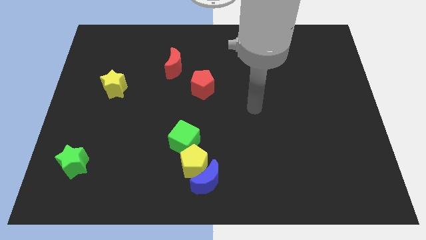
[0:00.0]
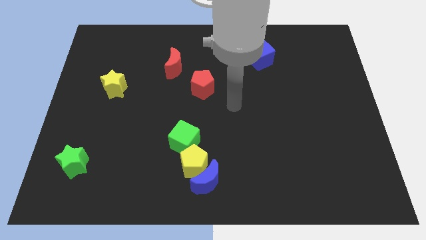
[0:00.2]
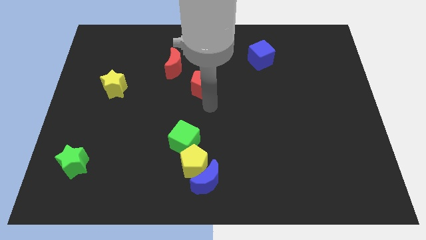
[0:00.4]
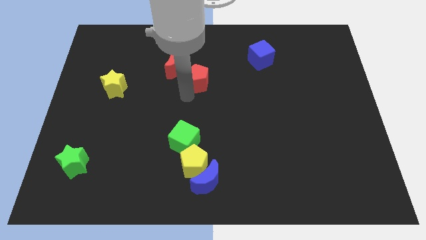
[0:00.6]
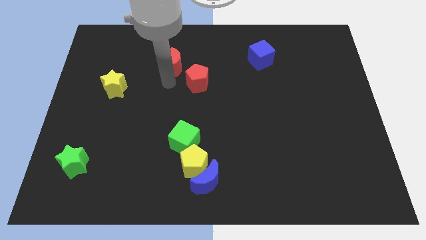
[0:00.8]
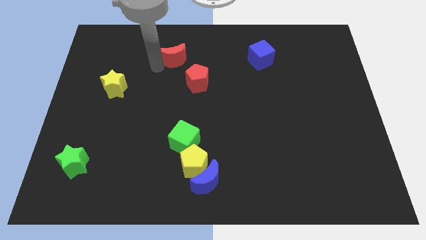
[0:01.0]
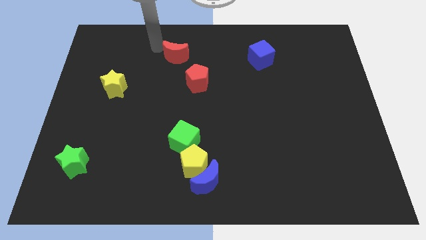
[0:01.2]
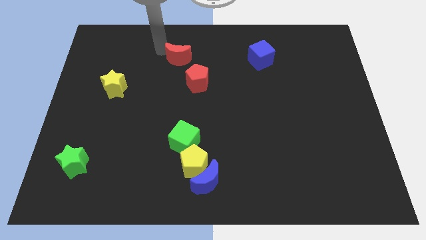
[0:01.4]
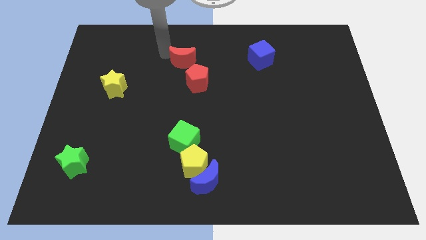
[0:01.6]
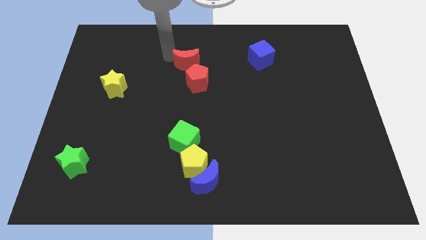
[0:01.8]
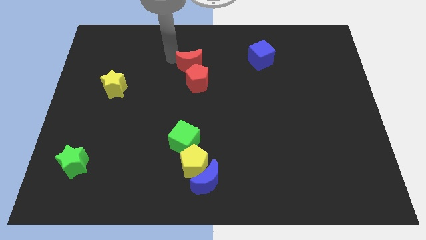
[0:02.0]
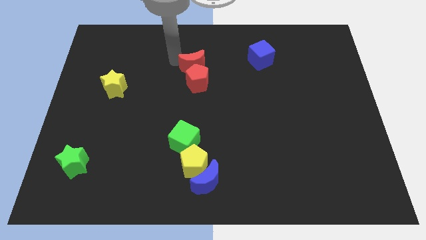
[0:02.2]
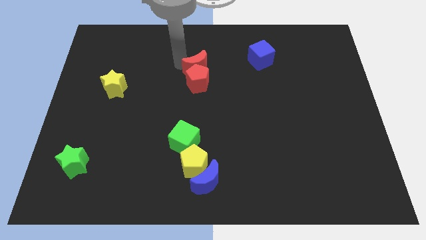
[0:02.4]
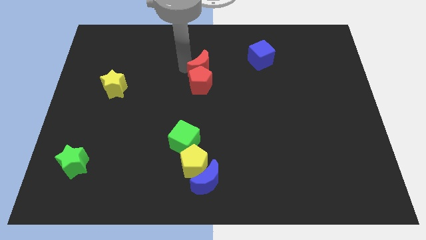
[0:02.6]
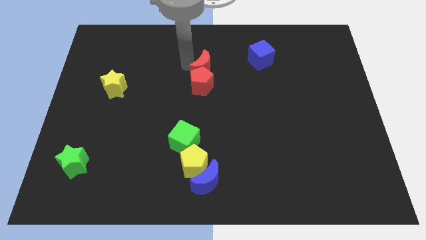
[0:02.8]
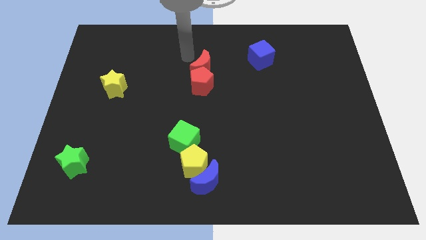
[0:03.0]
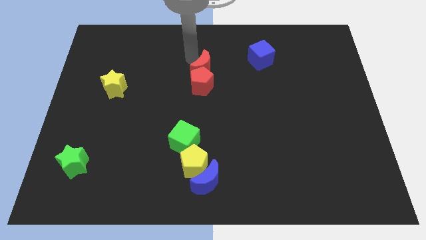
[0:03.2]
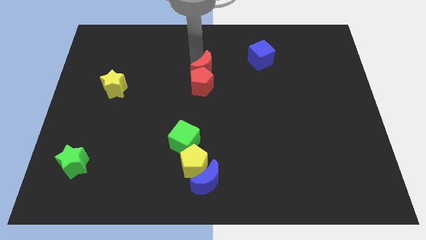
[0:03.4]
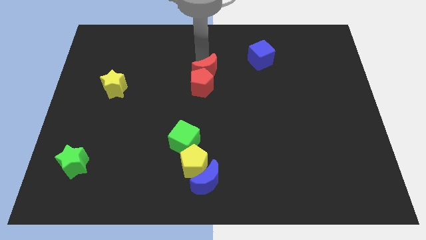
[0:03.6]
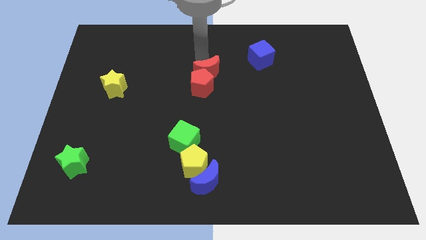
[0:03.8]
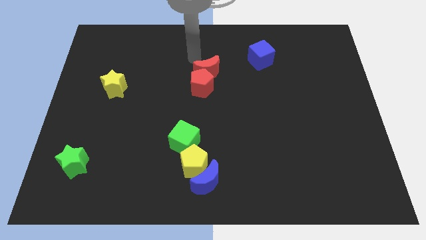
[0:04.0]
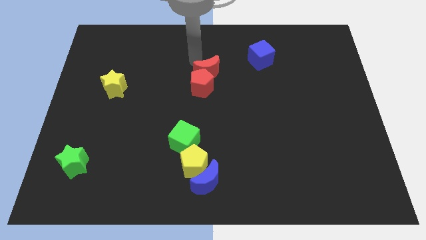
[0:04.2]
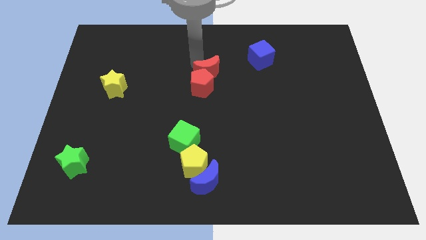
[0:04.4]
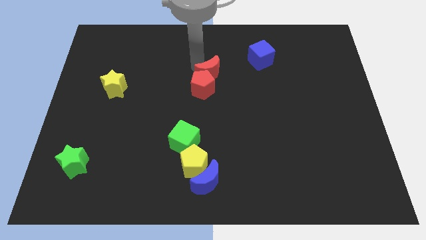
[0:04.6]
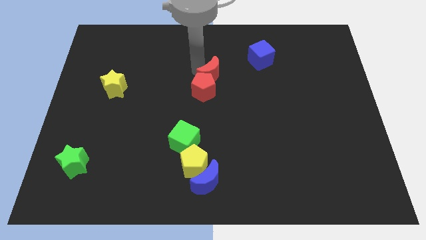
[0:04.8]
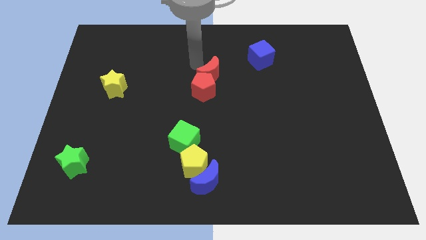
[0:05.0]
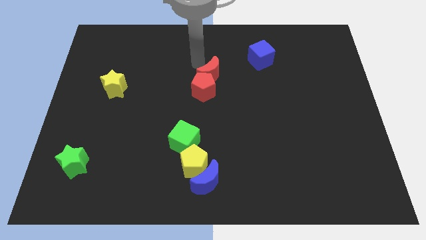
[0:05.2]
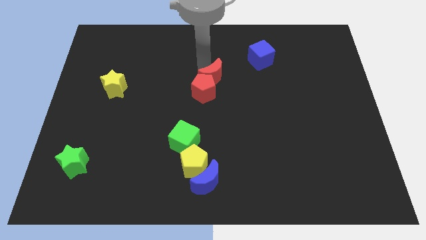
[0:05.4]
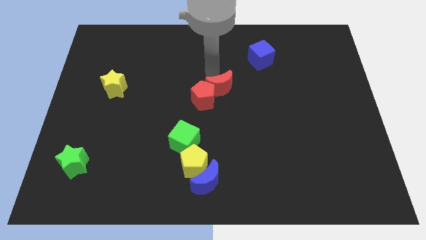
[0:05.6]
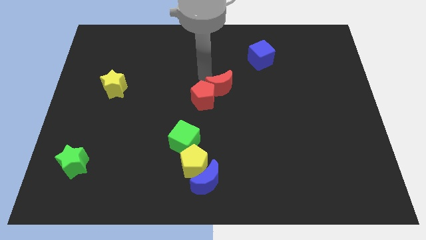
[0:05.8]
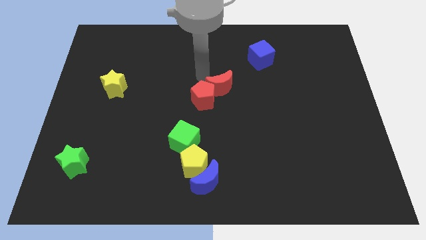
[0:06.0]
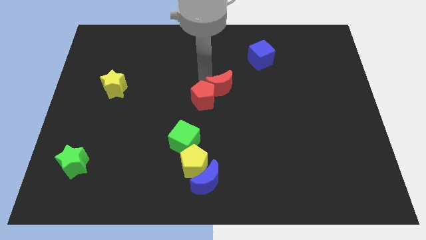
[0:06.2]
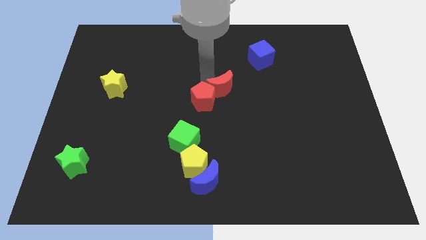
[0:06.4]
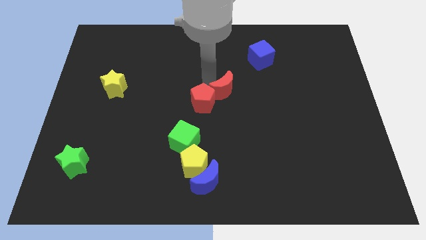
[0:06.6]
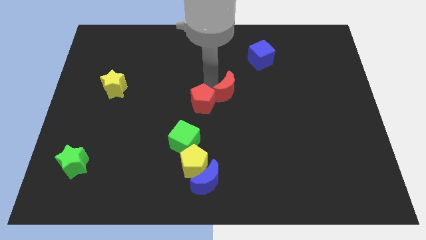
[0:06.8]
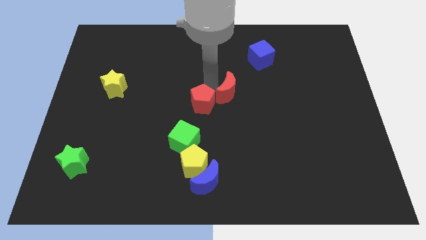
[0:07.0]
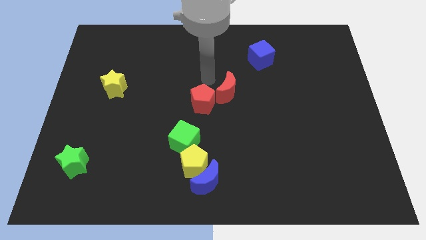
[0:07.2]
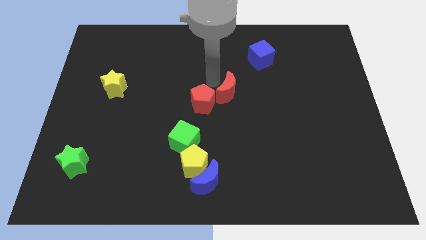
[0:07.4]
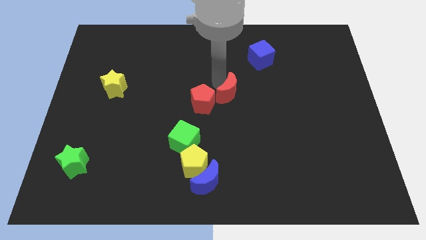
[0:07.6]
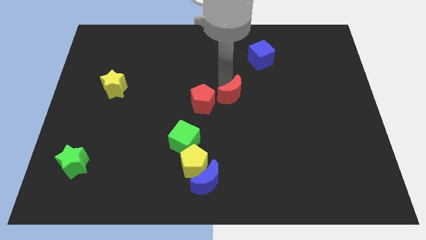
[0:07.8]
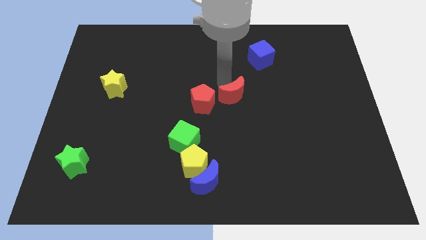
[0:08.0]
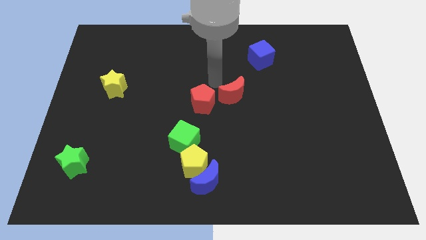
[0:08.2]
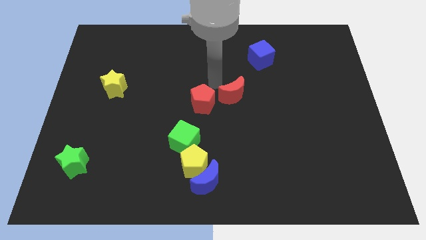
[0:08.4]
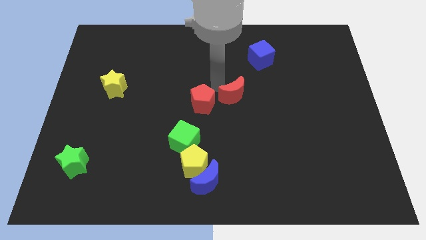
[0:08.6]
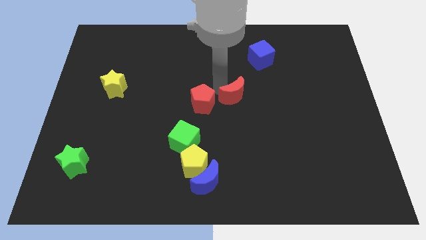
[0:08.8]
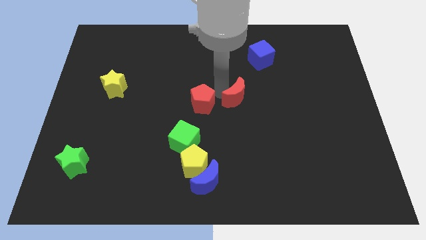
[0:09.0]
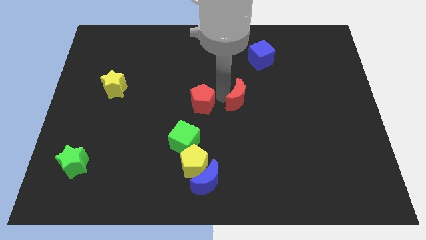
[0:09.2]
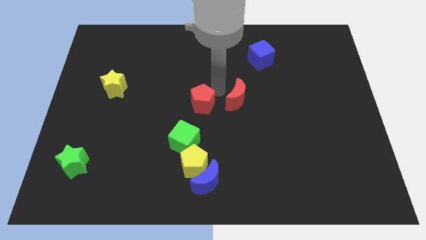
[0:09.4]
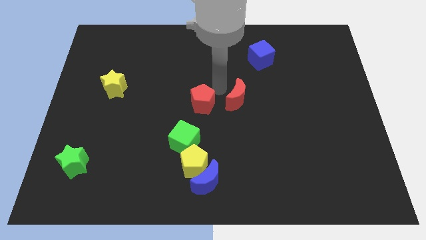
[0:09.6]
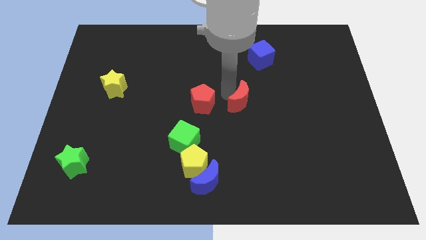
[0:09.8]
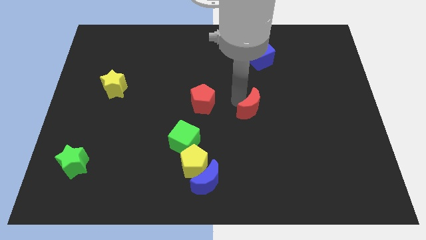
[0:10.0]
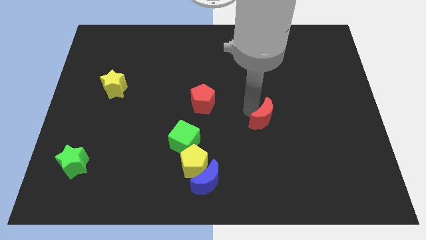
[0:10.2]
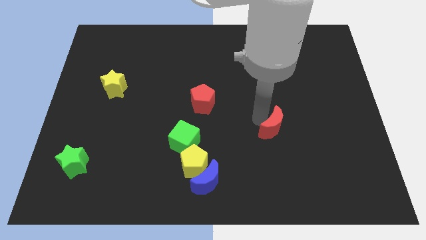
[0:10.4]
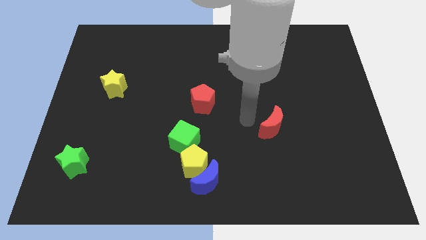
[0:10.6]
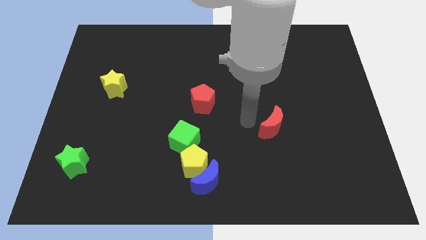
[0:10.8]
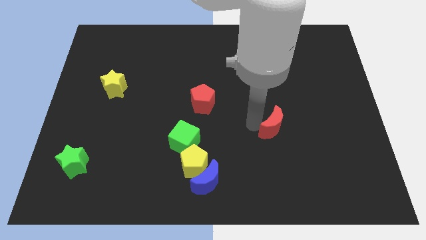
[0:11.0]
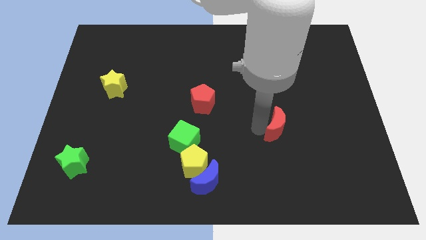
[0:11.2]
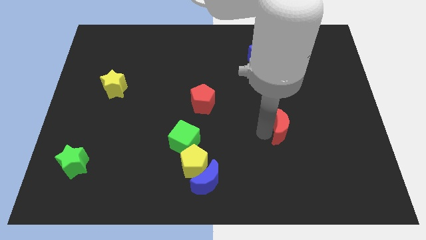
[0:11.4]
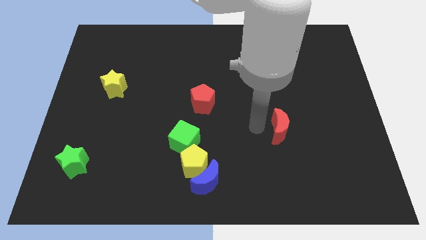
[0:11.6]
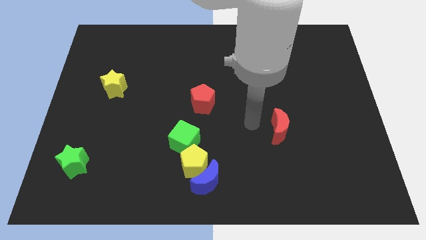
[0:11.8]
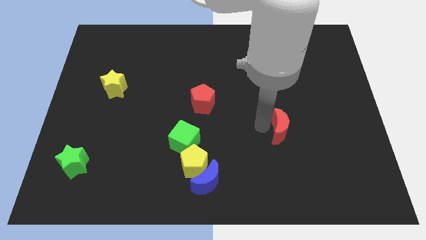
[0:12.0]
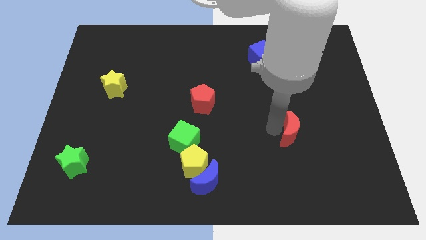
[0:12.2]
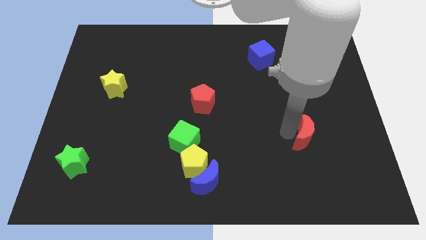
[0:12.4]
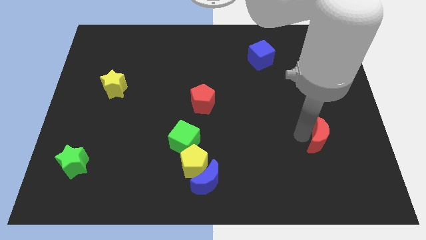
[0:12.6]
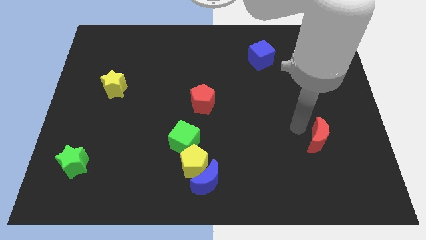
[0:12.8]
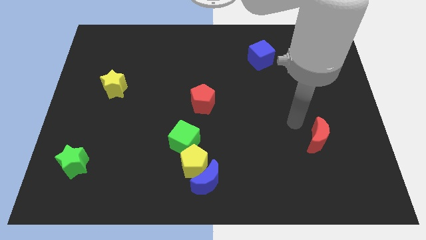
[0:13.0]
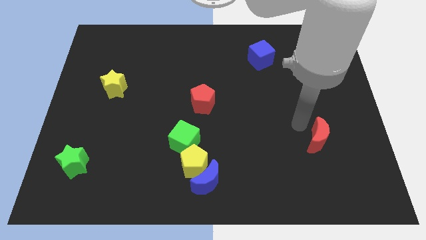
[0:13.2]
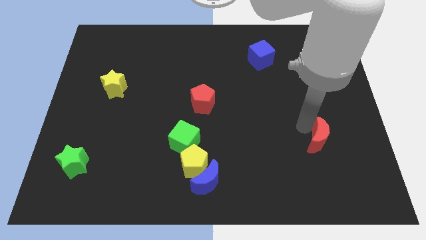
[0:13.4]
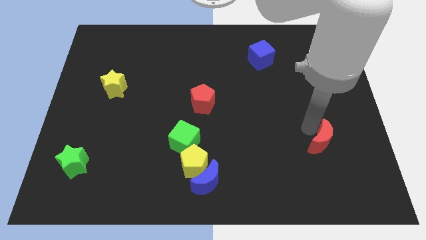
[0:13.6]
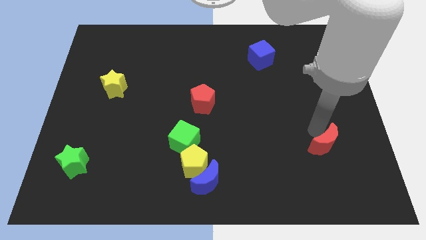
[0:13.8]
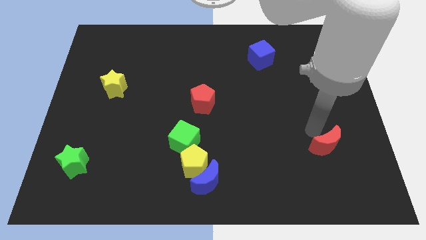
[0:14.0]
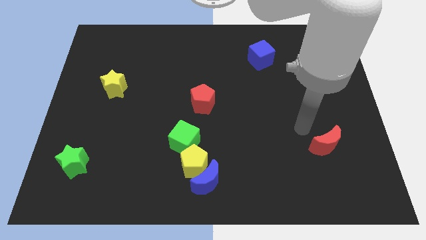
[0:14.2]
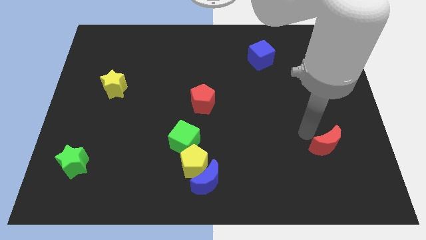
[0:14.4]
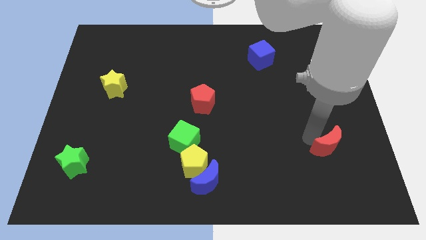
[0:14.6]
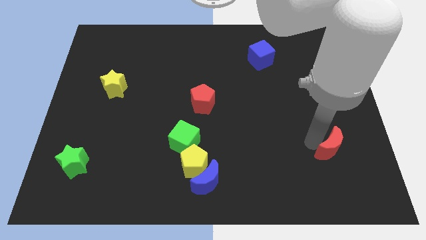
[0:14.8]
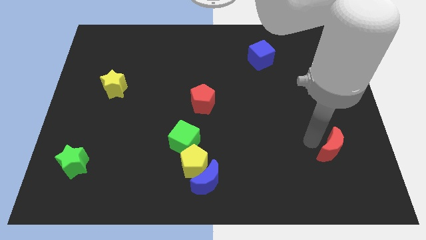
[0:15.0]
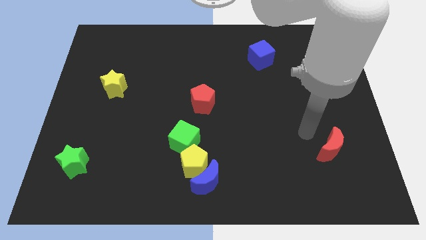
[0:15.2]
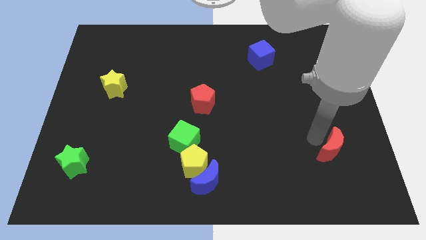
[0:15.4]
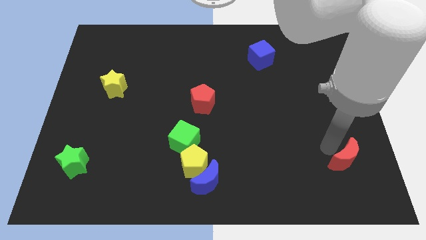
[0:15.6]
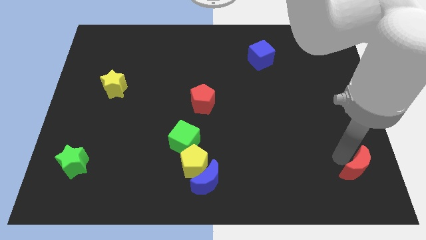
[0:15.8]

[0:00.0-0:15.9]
move the red moon to the bottom right corner
